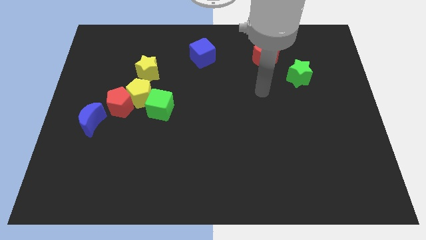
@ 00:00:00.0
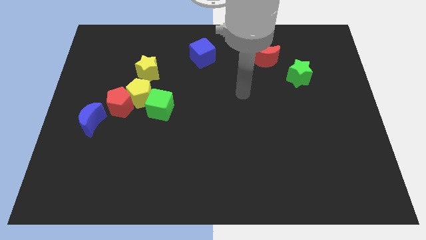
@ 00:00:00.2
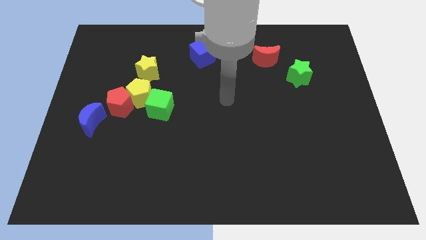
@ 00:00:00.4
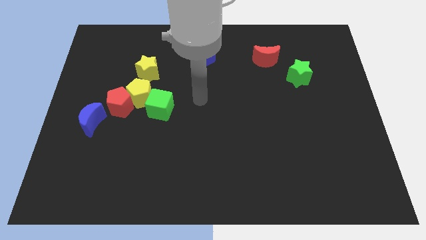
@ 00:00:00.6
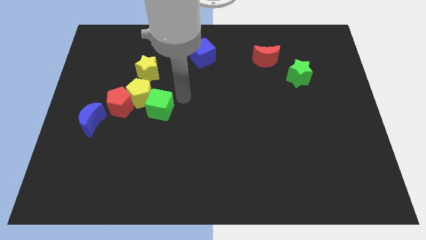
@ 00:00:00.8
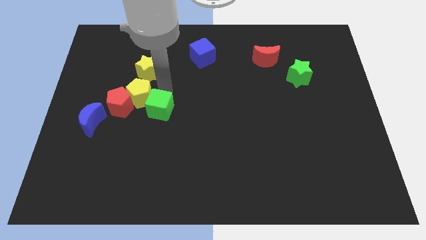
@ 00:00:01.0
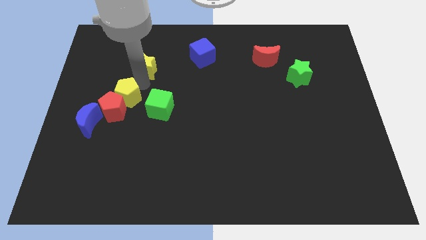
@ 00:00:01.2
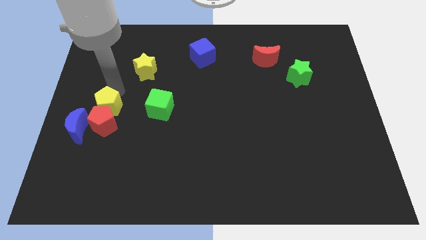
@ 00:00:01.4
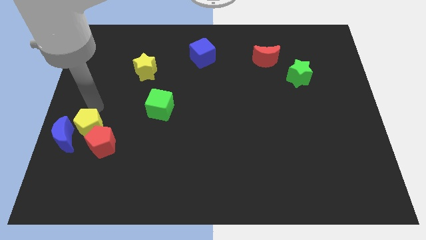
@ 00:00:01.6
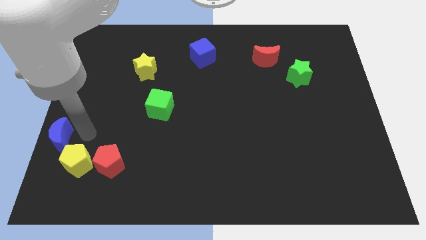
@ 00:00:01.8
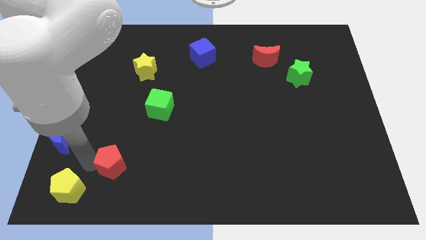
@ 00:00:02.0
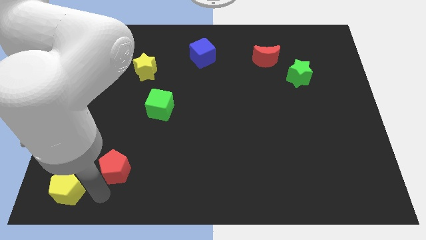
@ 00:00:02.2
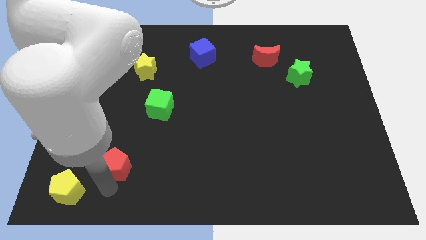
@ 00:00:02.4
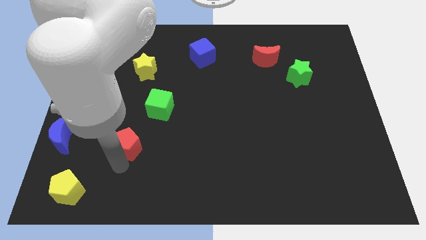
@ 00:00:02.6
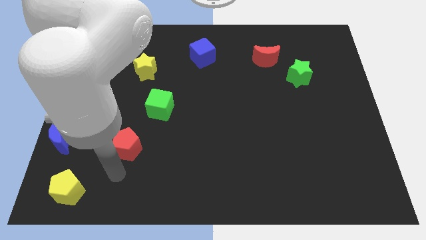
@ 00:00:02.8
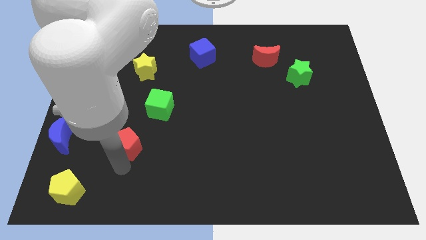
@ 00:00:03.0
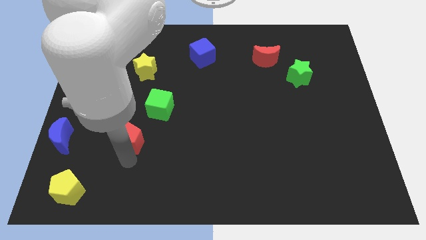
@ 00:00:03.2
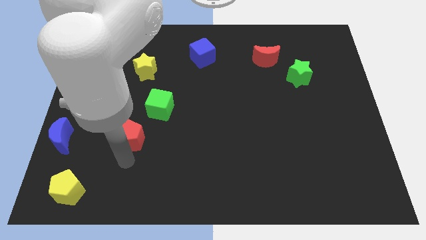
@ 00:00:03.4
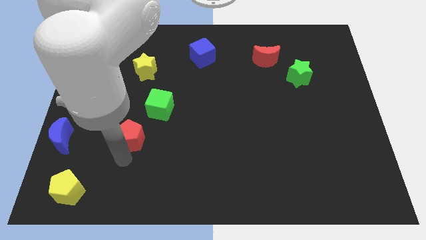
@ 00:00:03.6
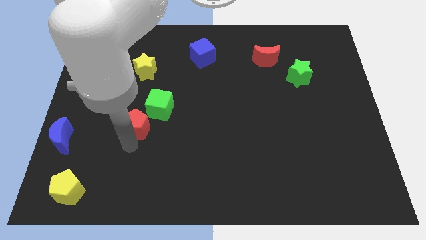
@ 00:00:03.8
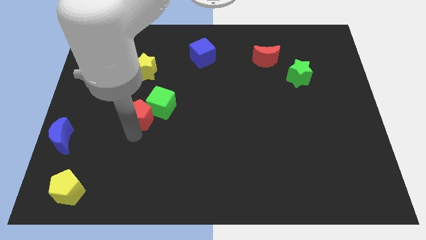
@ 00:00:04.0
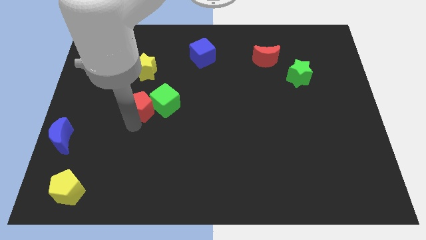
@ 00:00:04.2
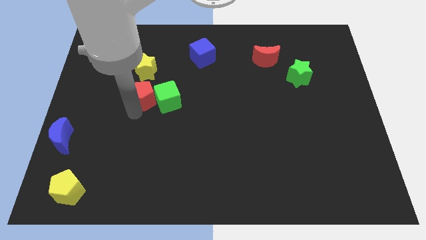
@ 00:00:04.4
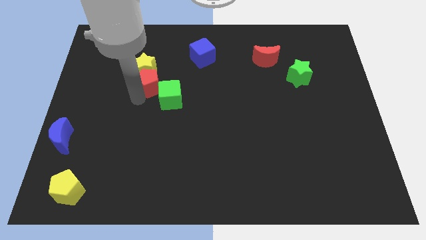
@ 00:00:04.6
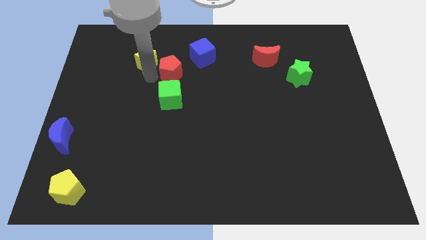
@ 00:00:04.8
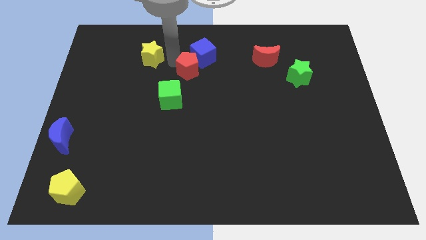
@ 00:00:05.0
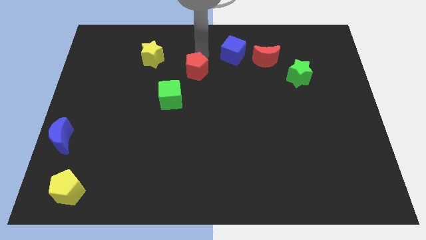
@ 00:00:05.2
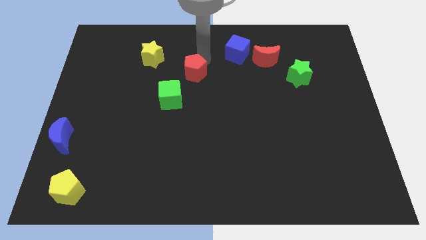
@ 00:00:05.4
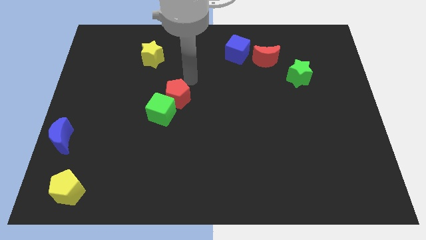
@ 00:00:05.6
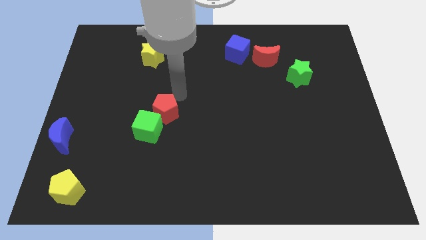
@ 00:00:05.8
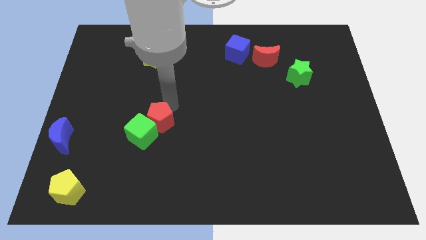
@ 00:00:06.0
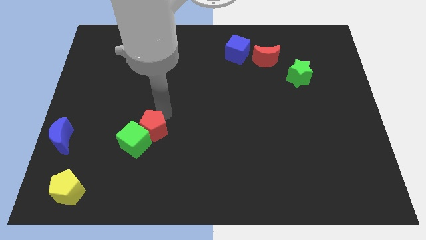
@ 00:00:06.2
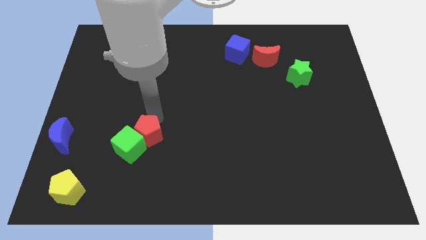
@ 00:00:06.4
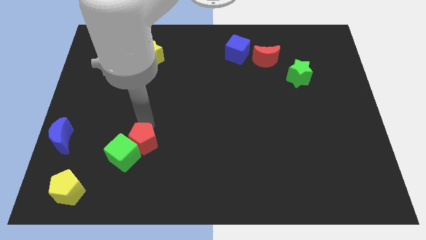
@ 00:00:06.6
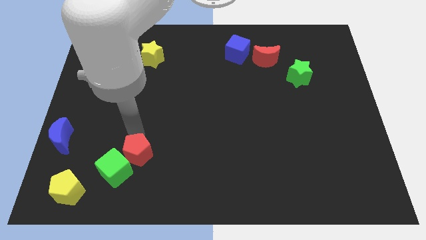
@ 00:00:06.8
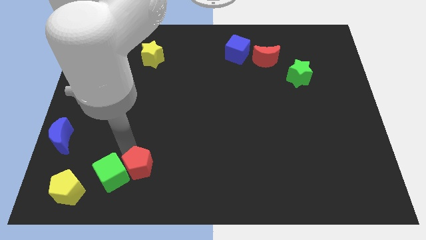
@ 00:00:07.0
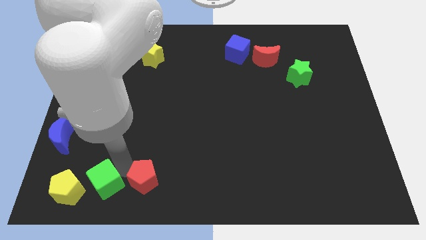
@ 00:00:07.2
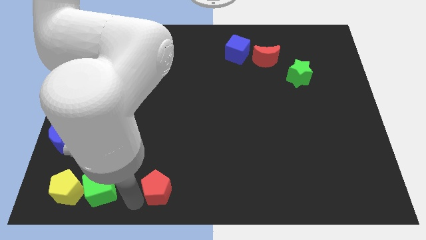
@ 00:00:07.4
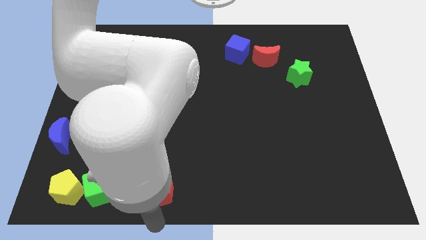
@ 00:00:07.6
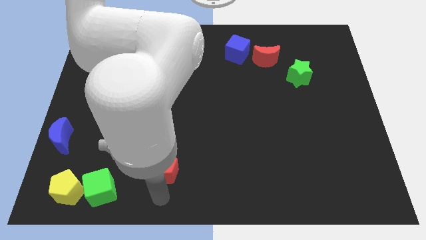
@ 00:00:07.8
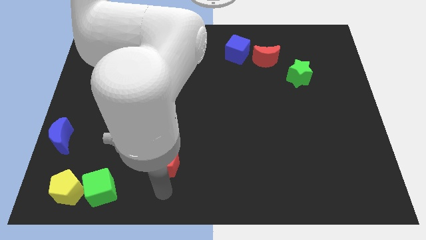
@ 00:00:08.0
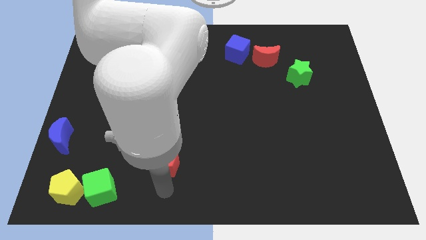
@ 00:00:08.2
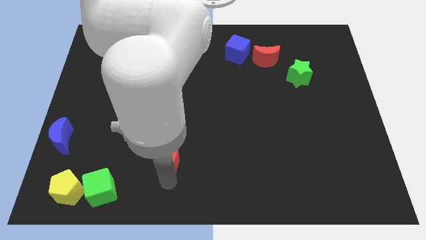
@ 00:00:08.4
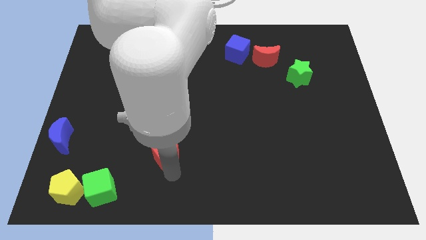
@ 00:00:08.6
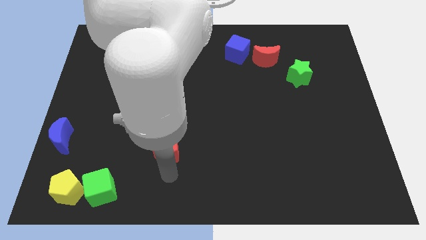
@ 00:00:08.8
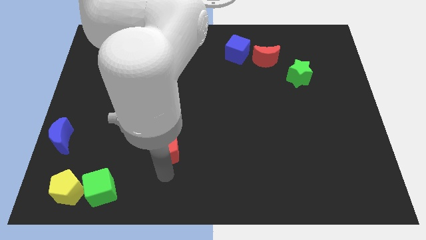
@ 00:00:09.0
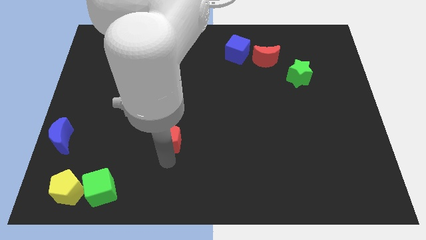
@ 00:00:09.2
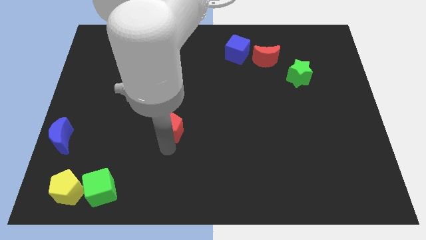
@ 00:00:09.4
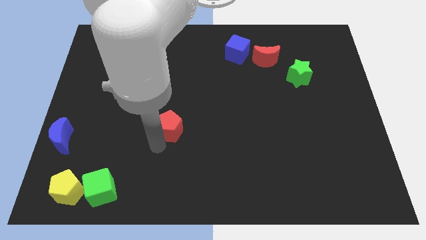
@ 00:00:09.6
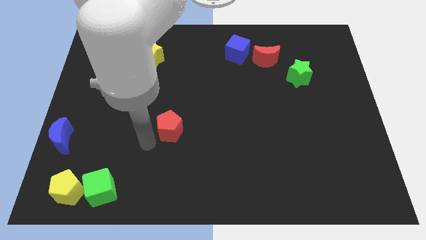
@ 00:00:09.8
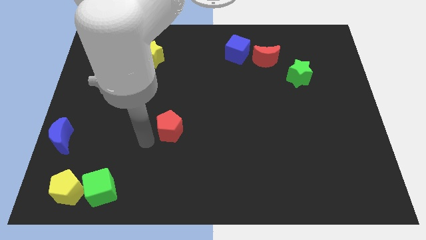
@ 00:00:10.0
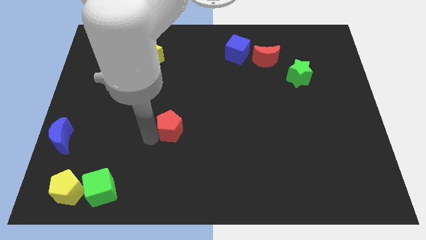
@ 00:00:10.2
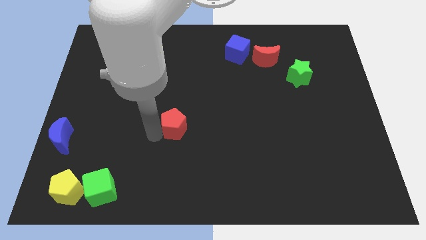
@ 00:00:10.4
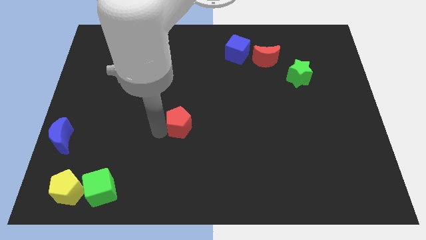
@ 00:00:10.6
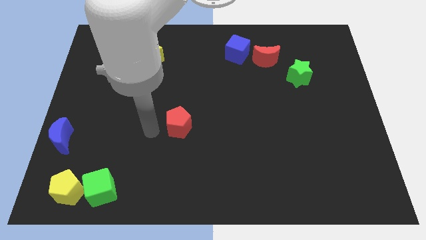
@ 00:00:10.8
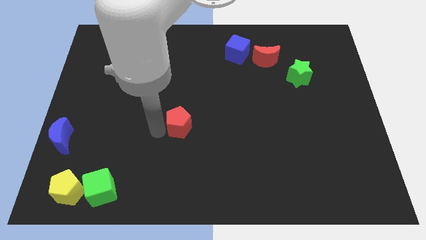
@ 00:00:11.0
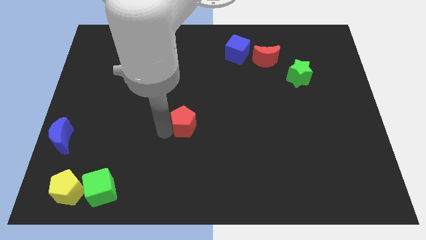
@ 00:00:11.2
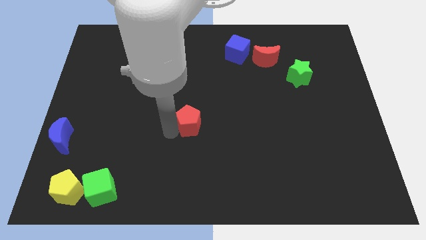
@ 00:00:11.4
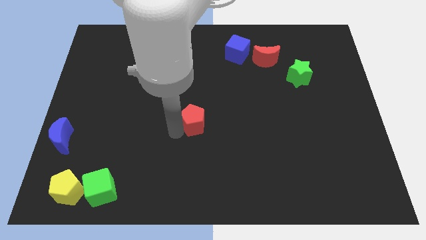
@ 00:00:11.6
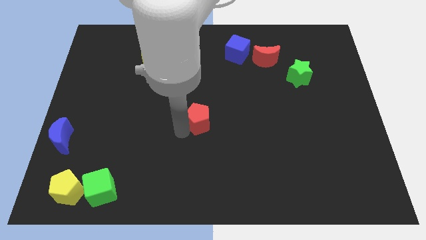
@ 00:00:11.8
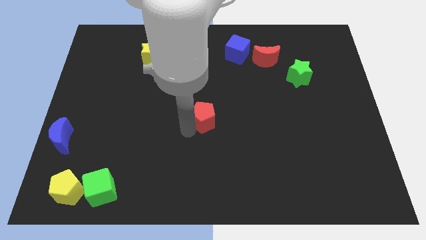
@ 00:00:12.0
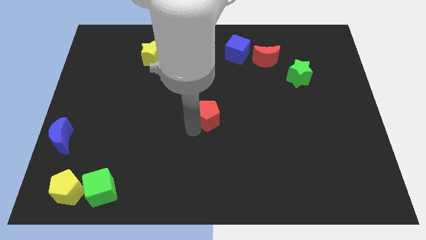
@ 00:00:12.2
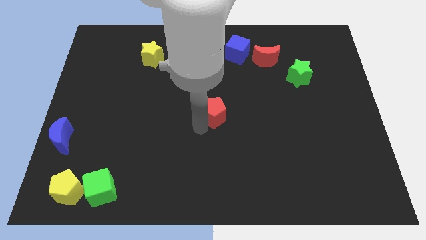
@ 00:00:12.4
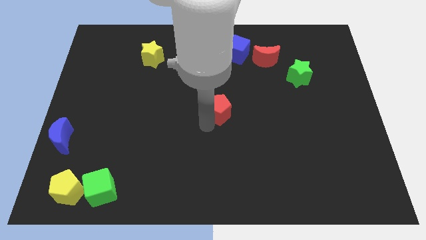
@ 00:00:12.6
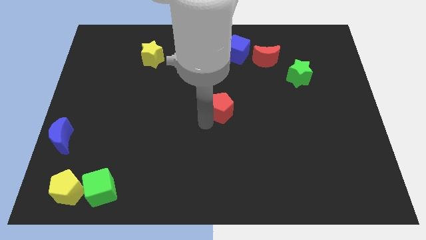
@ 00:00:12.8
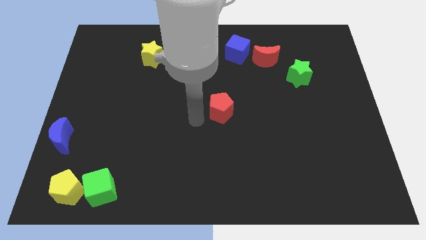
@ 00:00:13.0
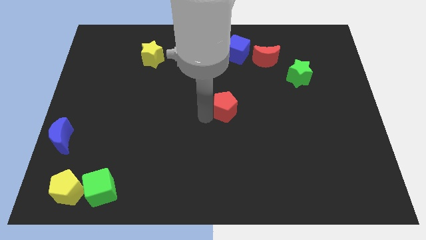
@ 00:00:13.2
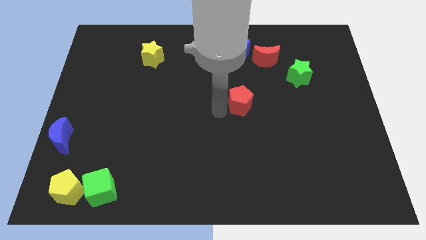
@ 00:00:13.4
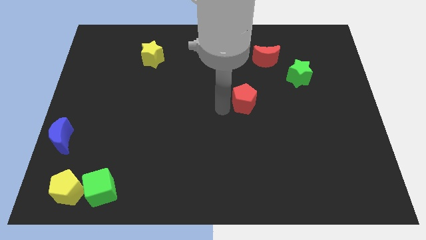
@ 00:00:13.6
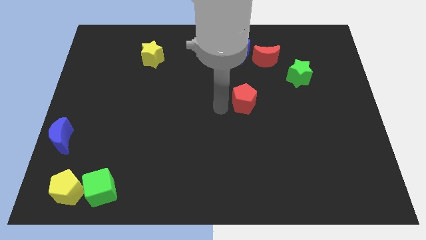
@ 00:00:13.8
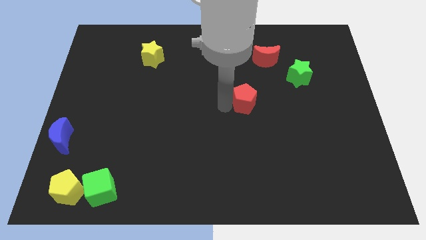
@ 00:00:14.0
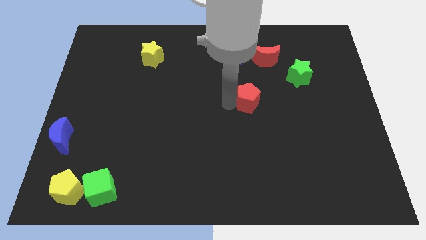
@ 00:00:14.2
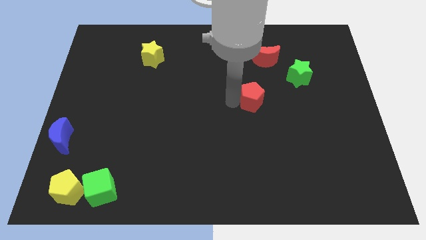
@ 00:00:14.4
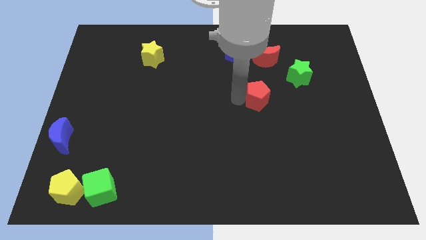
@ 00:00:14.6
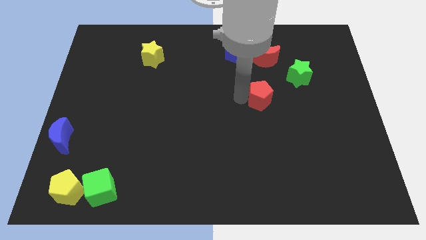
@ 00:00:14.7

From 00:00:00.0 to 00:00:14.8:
put the red pentagon to the bottom left of the green star
